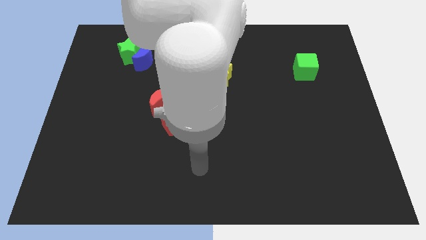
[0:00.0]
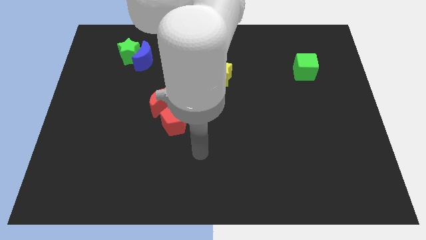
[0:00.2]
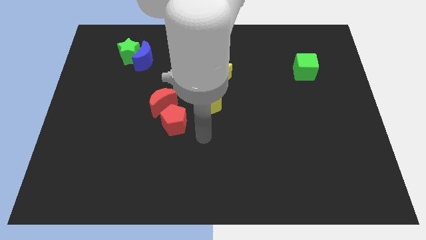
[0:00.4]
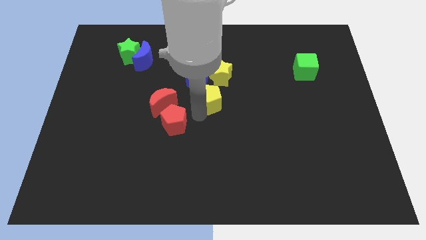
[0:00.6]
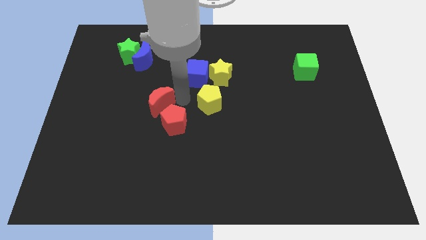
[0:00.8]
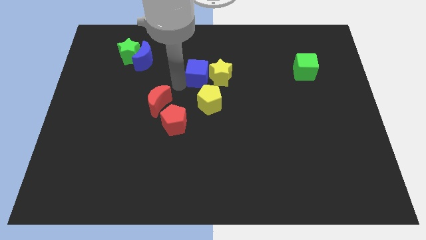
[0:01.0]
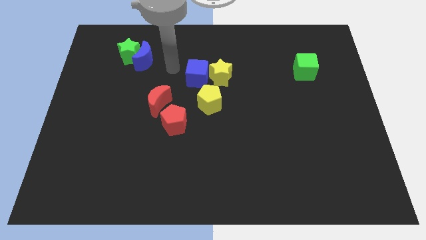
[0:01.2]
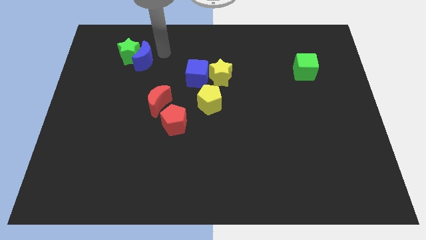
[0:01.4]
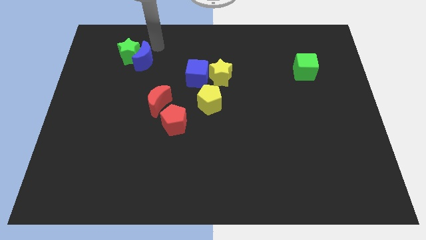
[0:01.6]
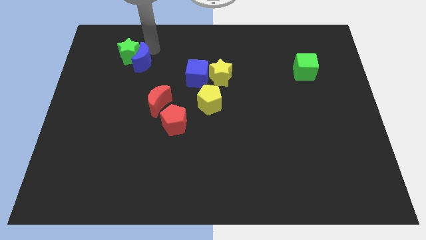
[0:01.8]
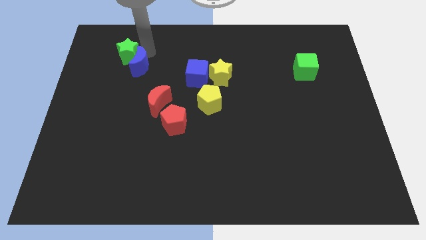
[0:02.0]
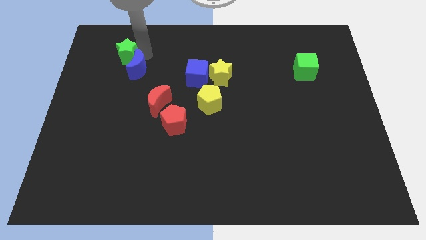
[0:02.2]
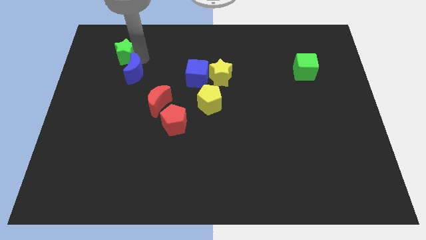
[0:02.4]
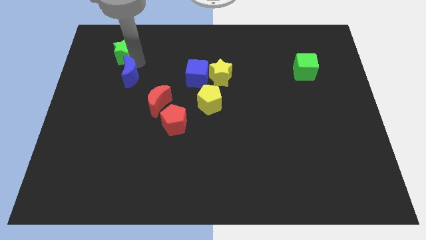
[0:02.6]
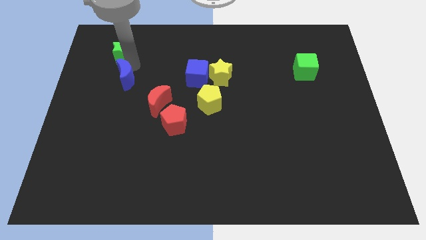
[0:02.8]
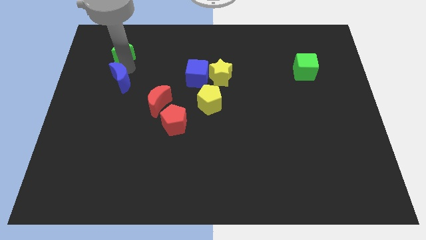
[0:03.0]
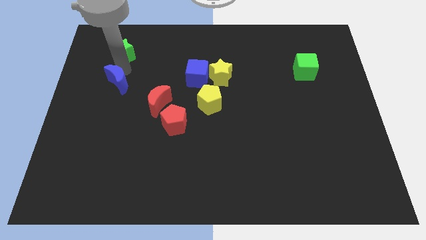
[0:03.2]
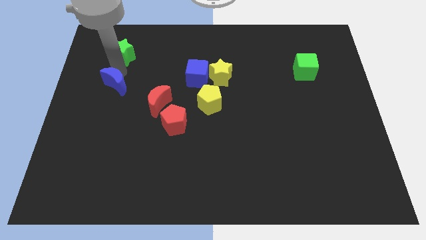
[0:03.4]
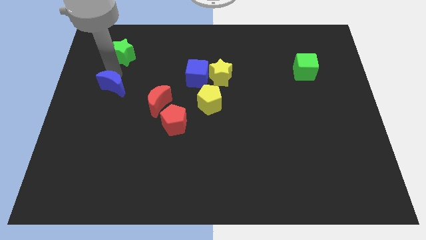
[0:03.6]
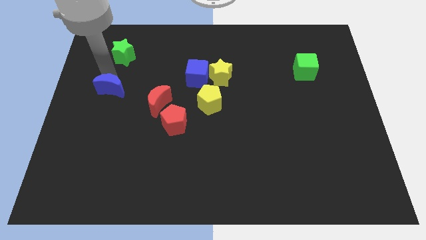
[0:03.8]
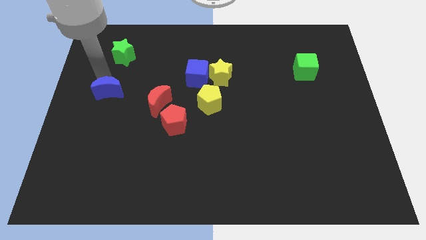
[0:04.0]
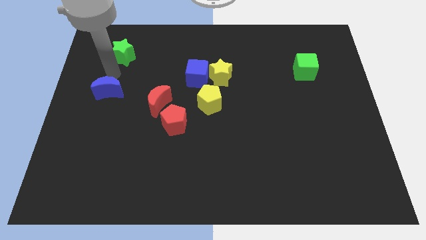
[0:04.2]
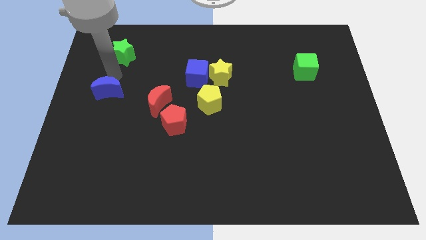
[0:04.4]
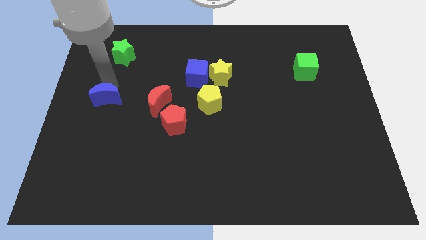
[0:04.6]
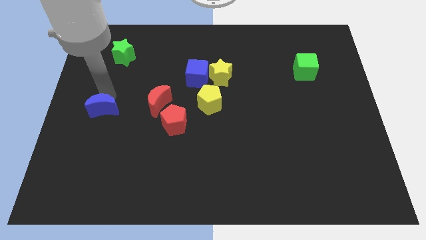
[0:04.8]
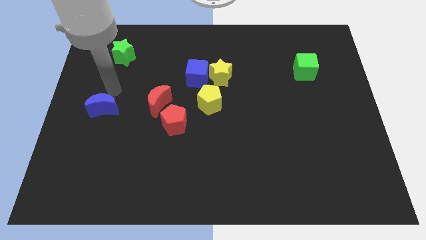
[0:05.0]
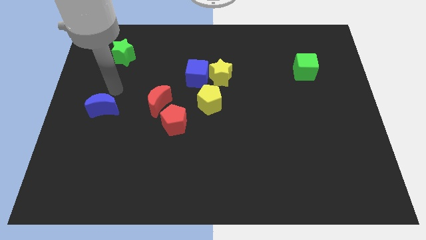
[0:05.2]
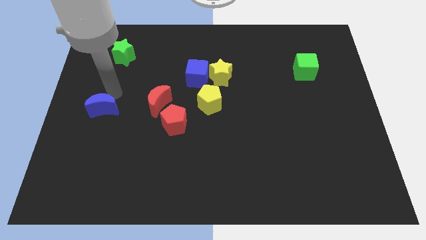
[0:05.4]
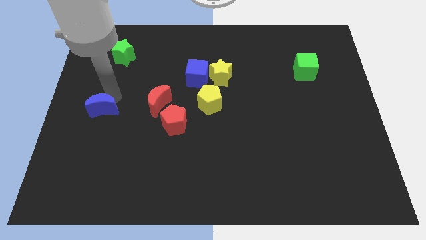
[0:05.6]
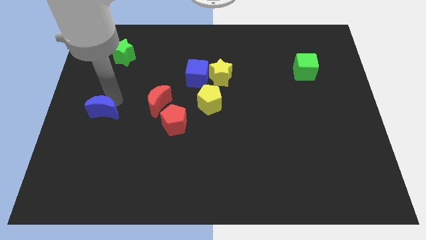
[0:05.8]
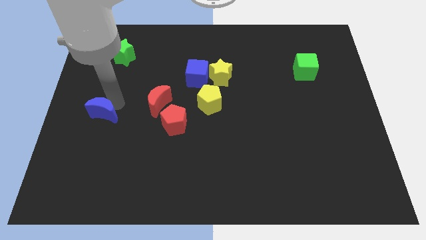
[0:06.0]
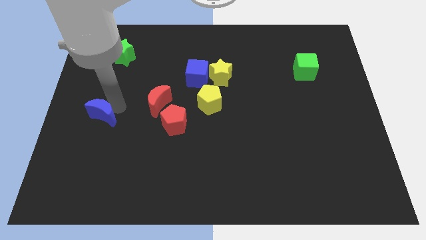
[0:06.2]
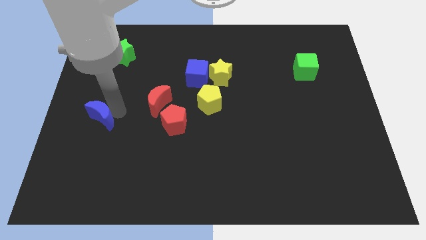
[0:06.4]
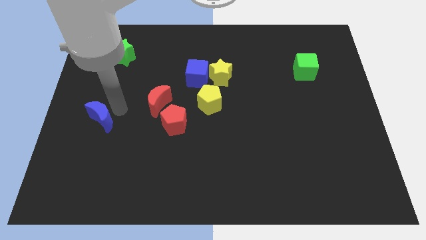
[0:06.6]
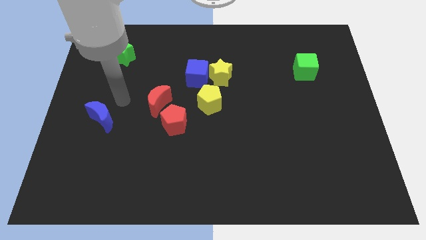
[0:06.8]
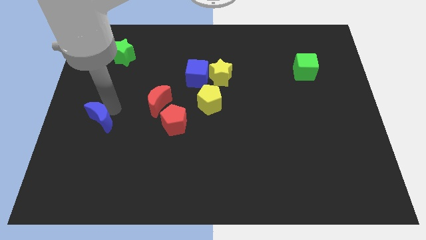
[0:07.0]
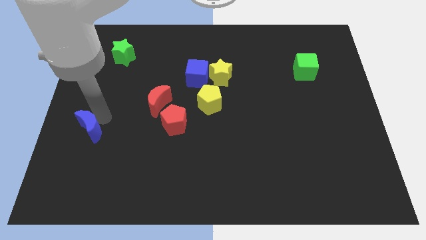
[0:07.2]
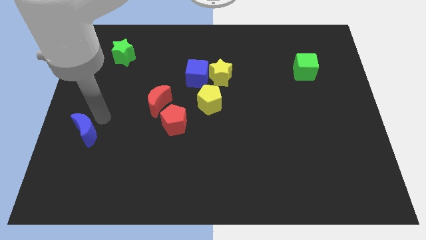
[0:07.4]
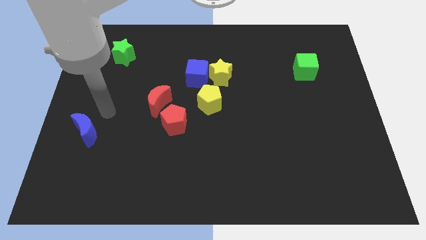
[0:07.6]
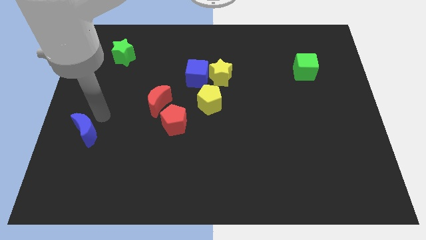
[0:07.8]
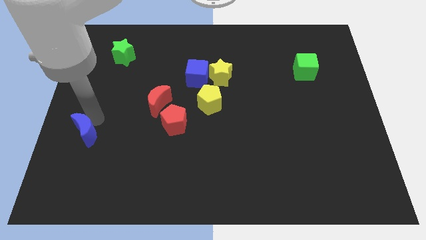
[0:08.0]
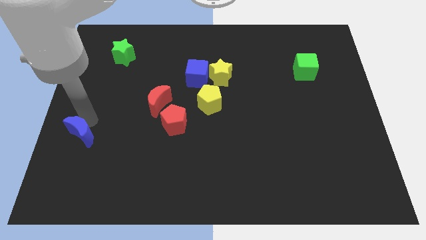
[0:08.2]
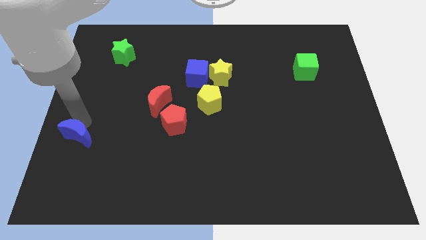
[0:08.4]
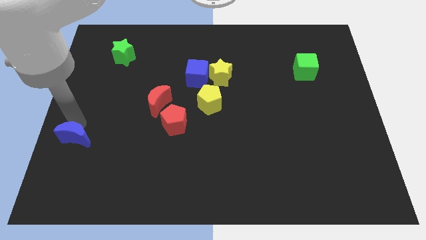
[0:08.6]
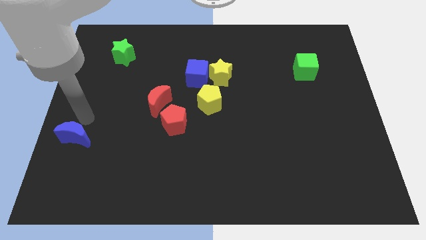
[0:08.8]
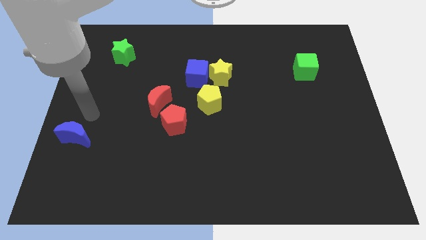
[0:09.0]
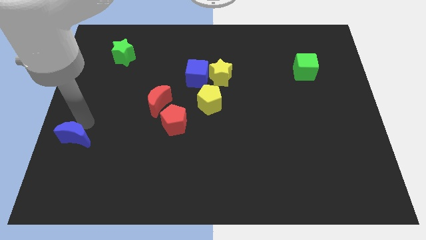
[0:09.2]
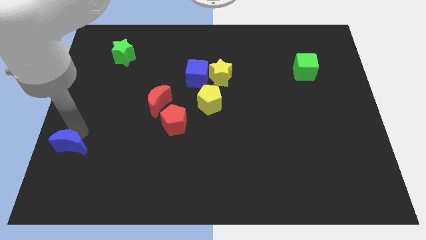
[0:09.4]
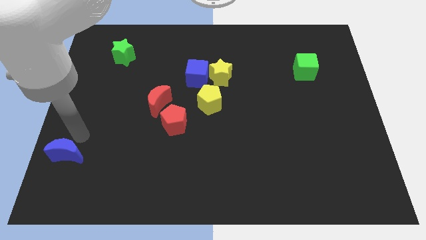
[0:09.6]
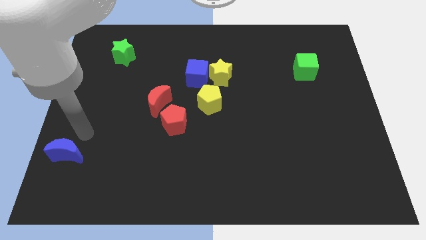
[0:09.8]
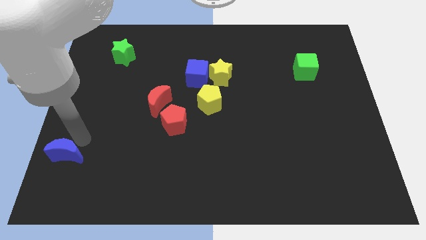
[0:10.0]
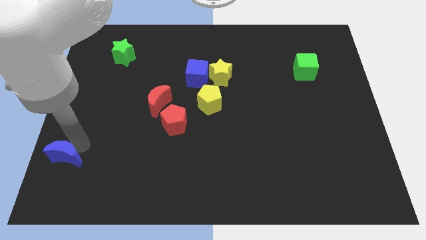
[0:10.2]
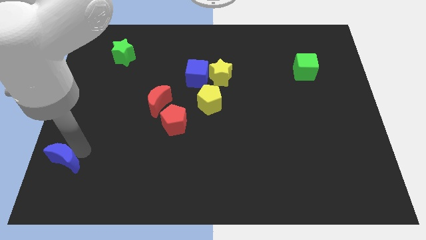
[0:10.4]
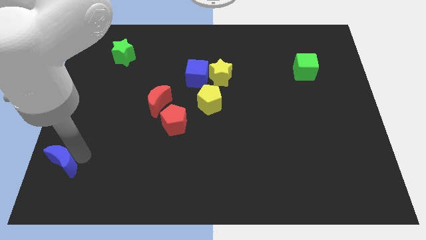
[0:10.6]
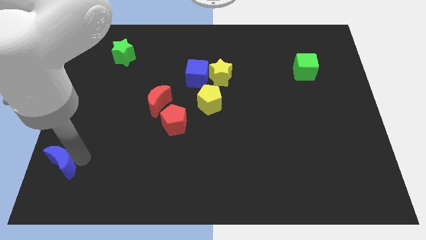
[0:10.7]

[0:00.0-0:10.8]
move the blue moon to the bottom left of the board

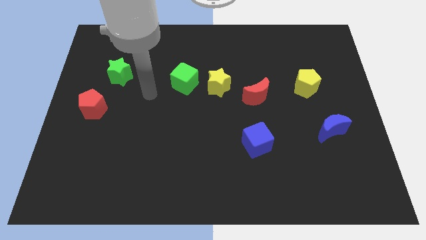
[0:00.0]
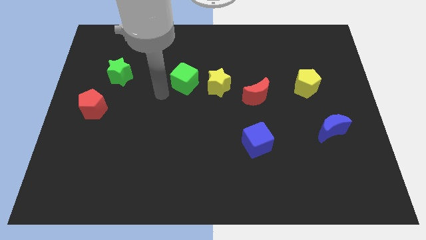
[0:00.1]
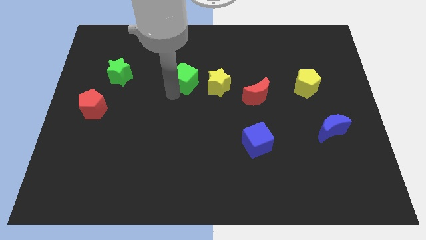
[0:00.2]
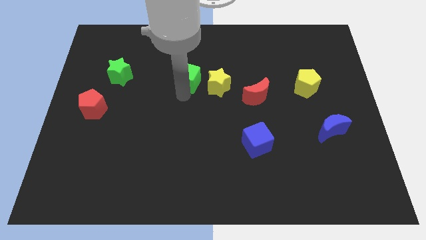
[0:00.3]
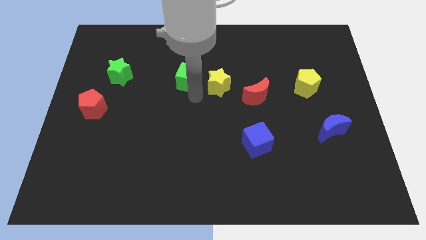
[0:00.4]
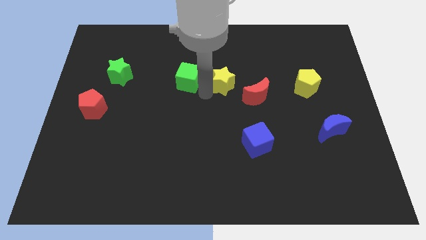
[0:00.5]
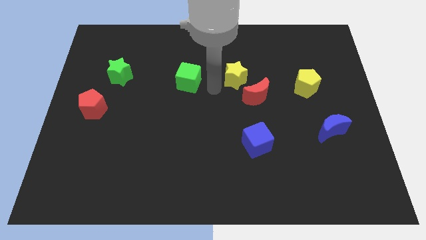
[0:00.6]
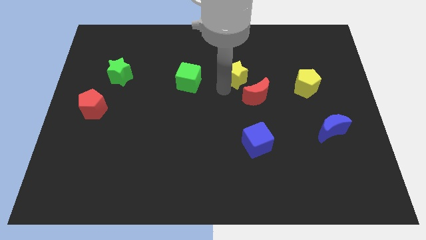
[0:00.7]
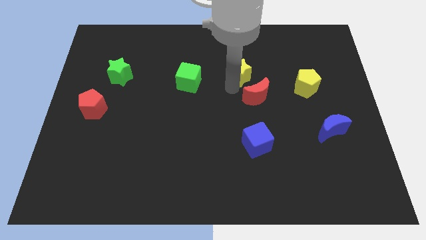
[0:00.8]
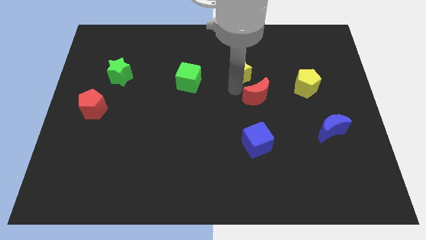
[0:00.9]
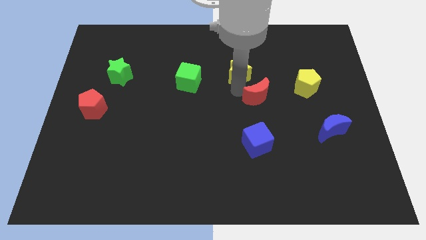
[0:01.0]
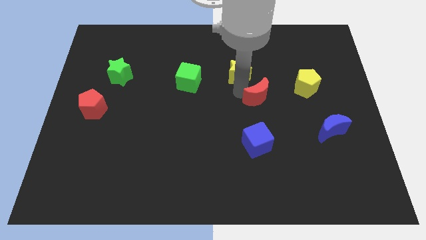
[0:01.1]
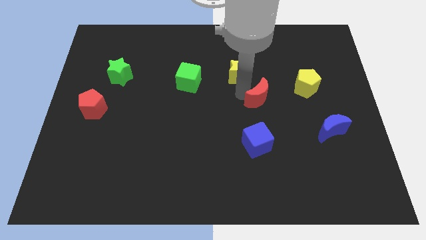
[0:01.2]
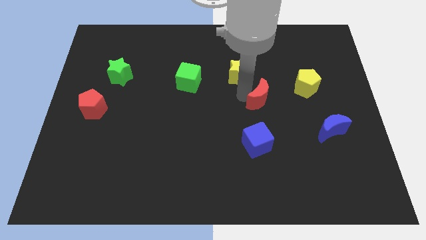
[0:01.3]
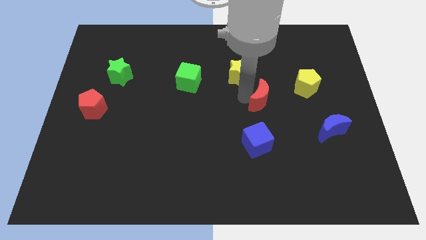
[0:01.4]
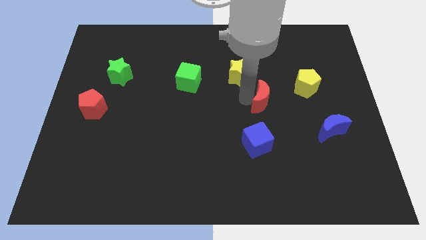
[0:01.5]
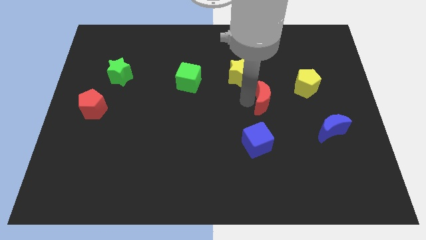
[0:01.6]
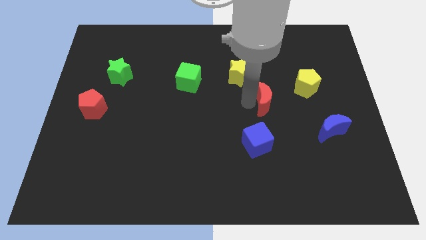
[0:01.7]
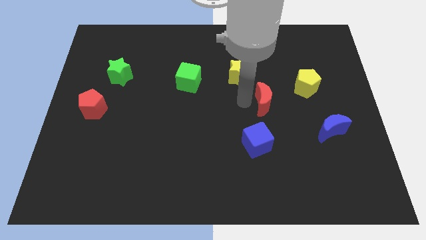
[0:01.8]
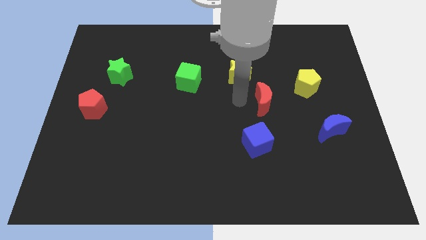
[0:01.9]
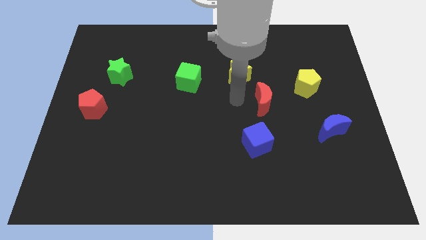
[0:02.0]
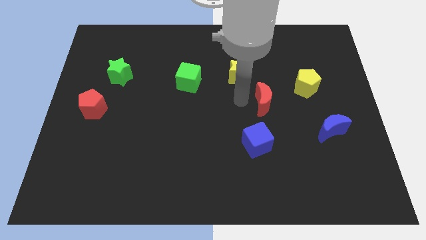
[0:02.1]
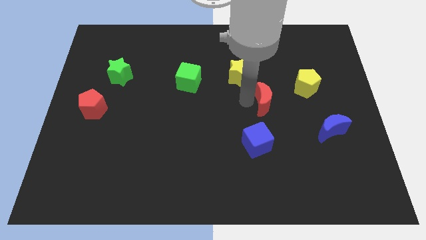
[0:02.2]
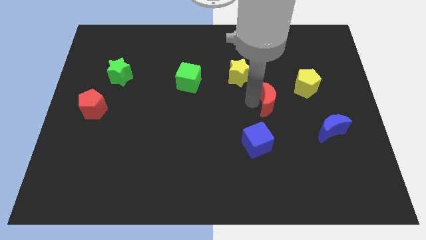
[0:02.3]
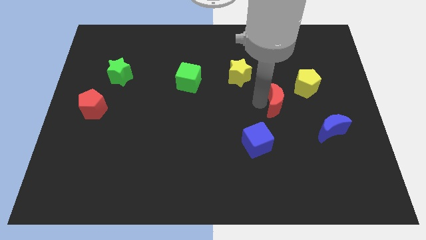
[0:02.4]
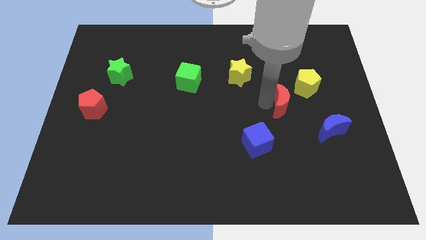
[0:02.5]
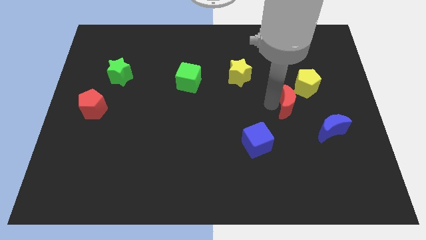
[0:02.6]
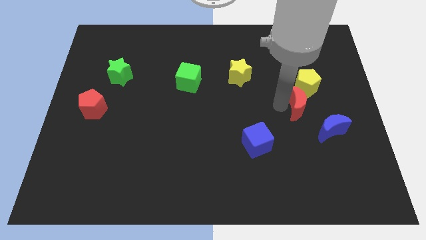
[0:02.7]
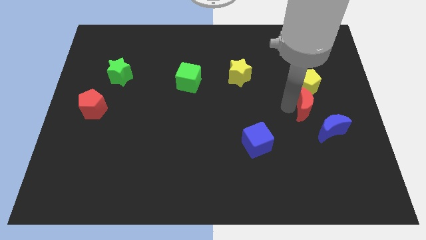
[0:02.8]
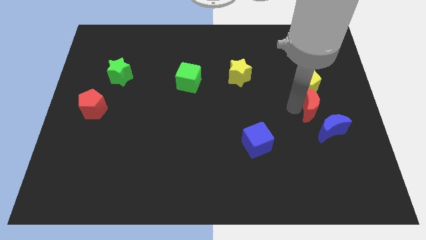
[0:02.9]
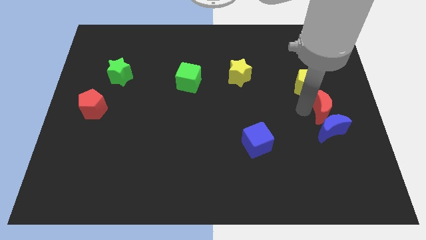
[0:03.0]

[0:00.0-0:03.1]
push the red moon to the right side
